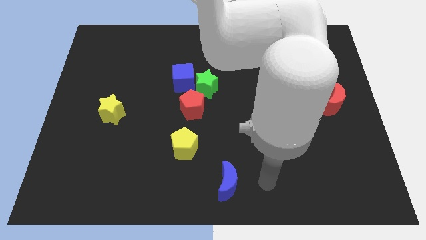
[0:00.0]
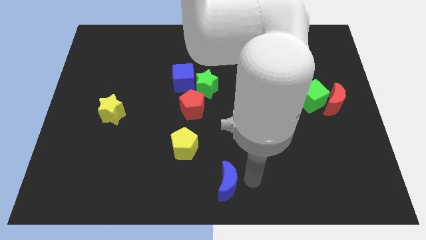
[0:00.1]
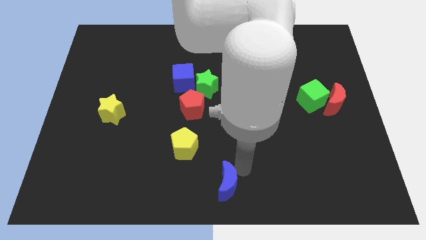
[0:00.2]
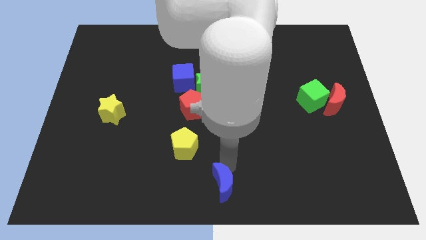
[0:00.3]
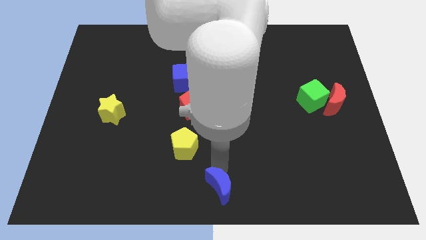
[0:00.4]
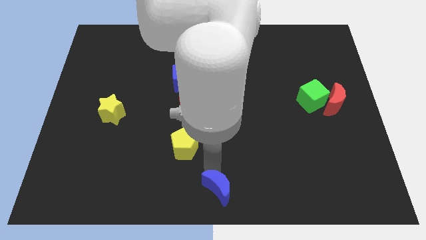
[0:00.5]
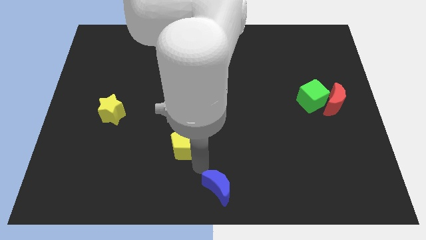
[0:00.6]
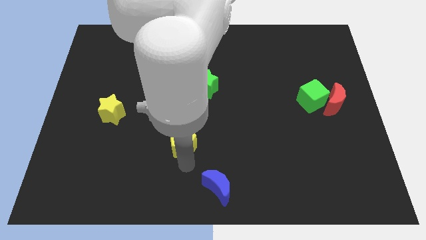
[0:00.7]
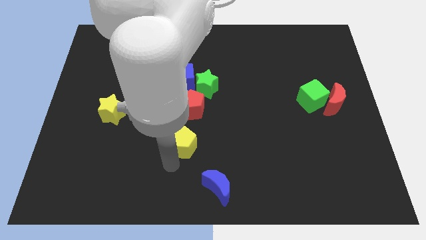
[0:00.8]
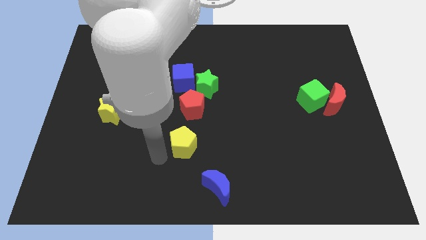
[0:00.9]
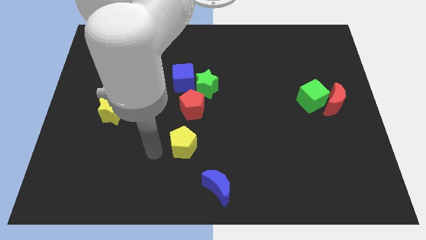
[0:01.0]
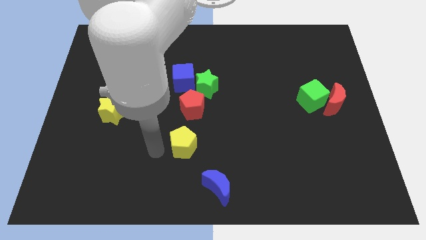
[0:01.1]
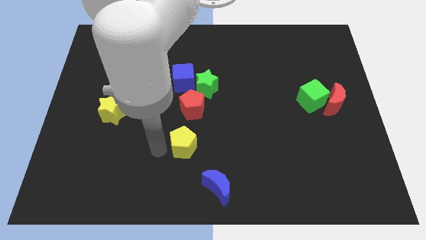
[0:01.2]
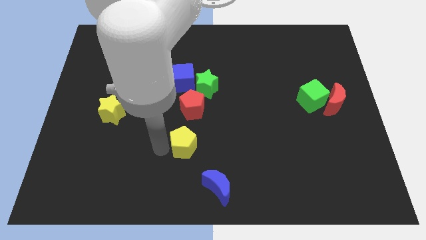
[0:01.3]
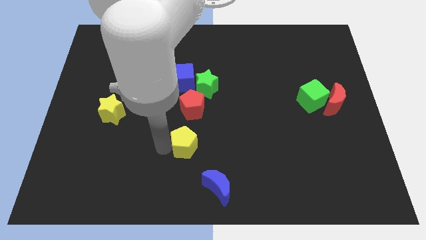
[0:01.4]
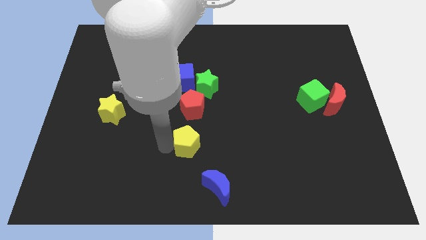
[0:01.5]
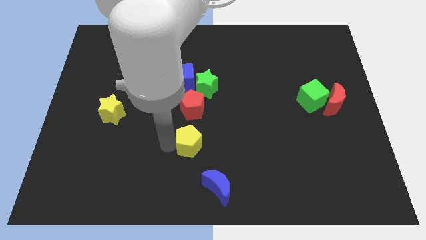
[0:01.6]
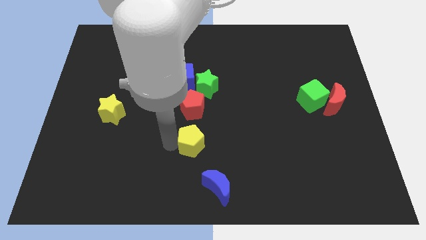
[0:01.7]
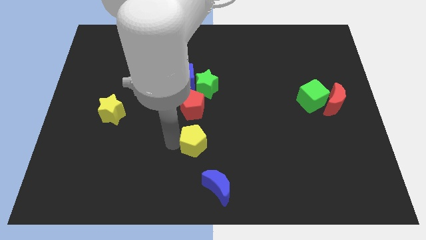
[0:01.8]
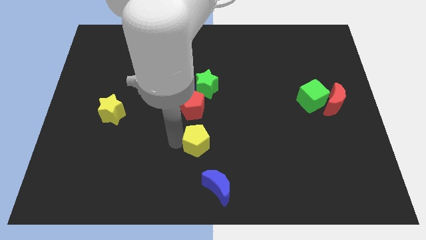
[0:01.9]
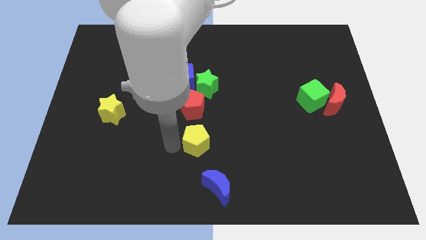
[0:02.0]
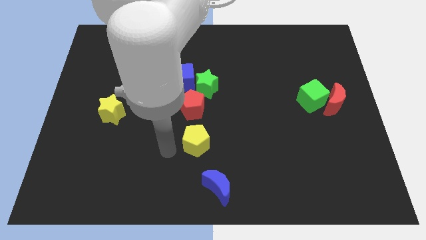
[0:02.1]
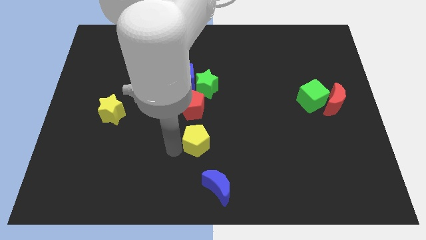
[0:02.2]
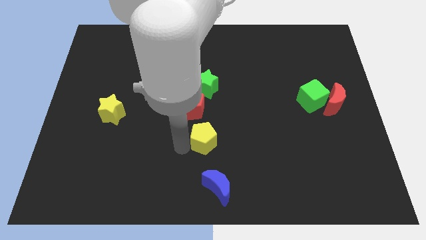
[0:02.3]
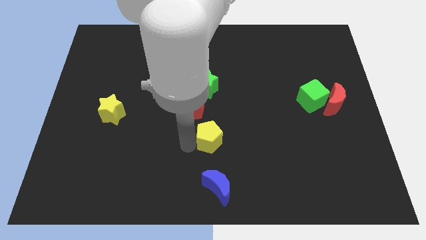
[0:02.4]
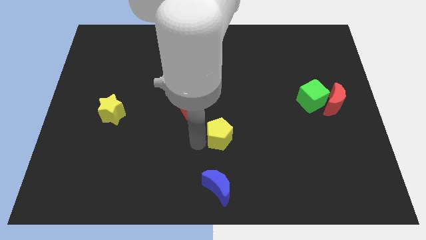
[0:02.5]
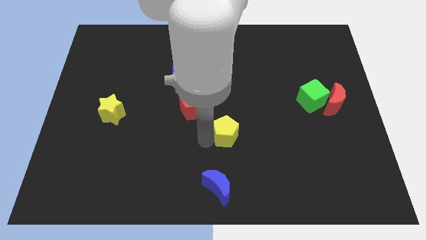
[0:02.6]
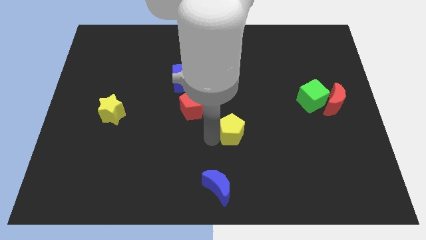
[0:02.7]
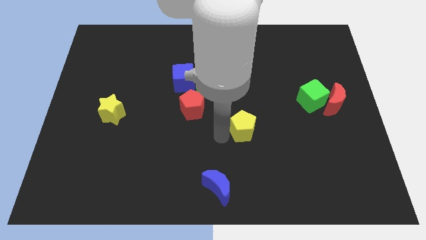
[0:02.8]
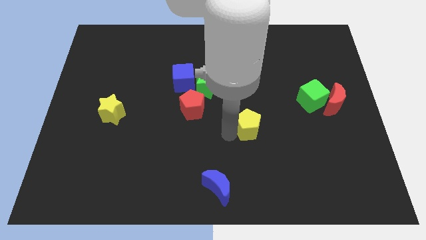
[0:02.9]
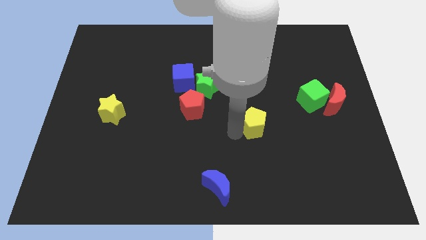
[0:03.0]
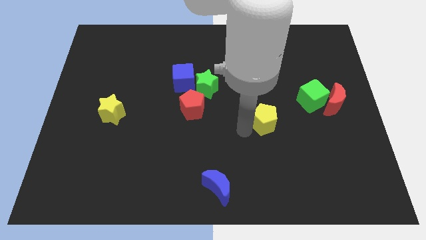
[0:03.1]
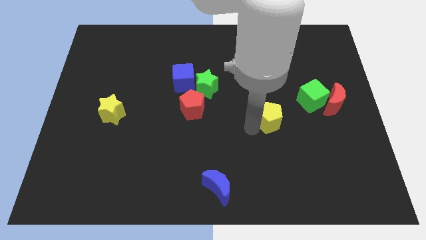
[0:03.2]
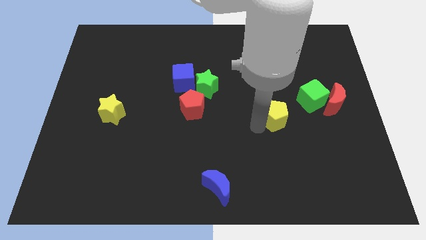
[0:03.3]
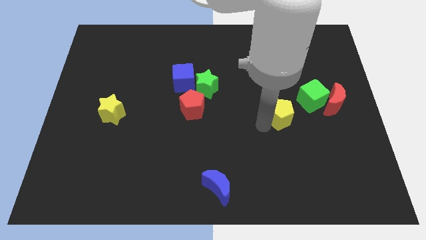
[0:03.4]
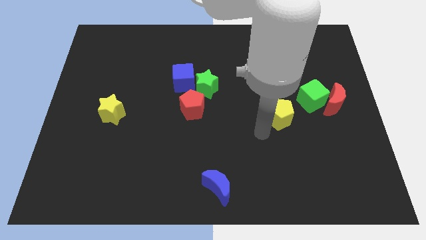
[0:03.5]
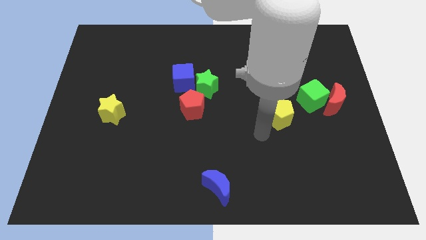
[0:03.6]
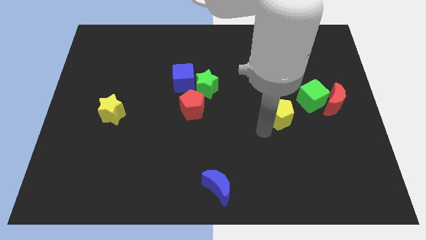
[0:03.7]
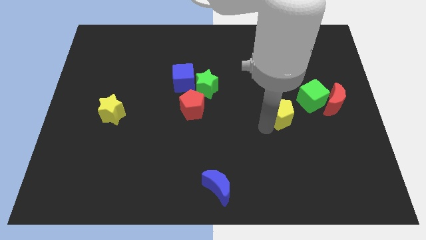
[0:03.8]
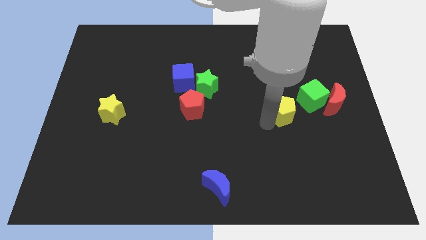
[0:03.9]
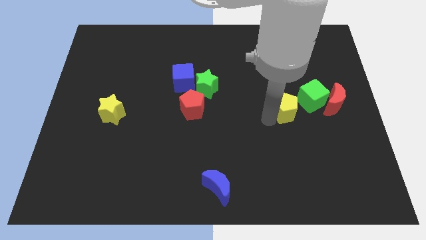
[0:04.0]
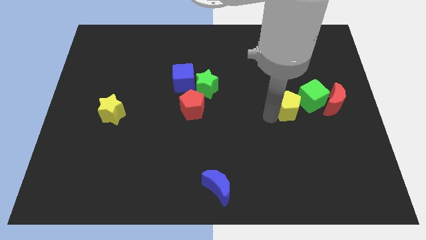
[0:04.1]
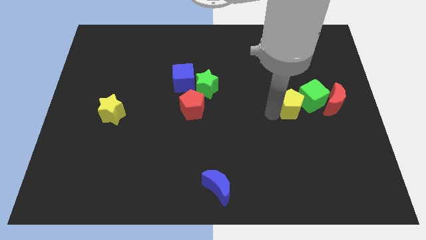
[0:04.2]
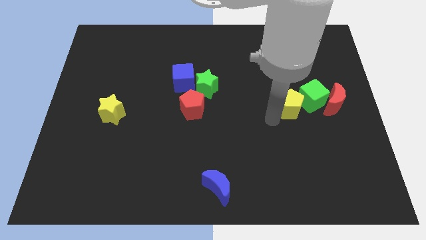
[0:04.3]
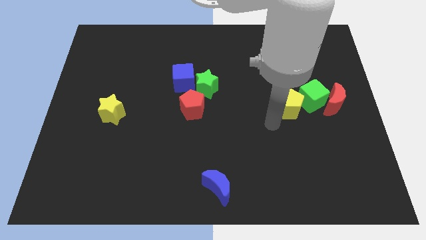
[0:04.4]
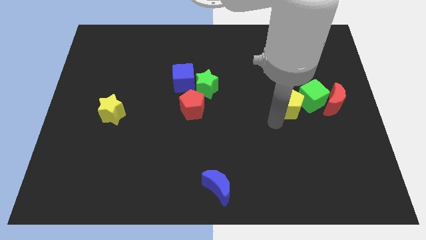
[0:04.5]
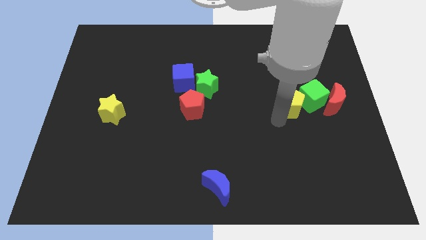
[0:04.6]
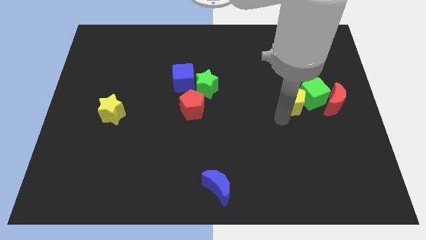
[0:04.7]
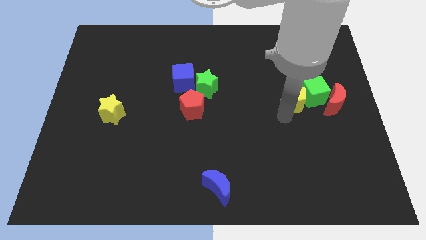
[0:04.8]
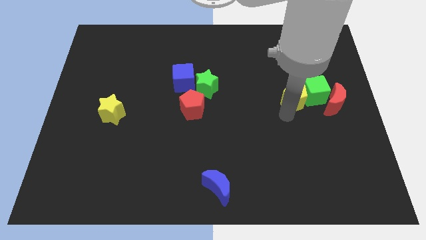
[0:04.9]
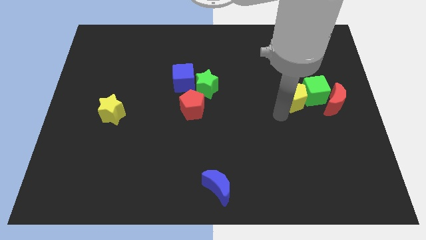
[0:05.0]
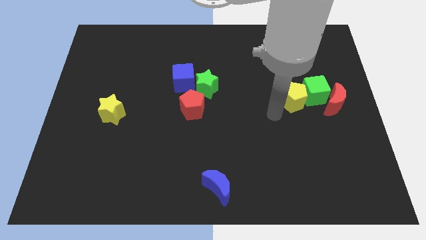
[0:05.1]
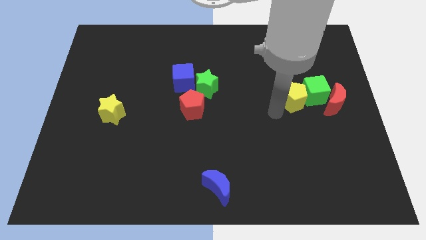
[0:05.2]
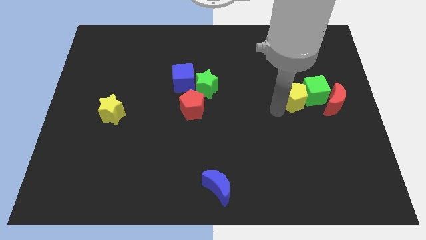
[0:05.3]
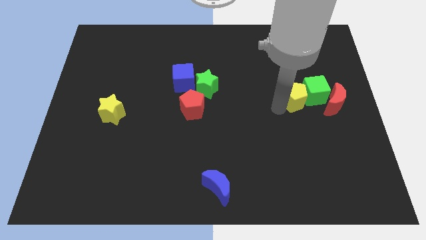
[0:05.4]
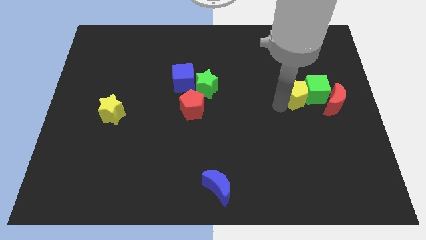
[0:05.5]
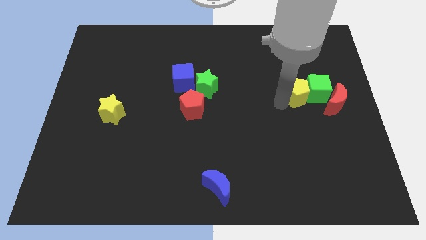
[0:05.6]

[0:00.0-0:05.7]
slide the yellow pentagon diagonally up and to the left of the red moon
